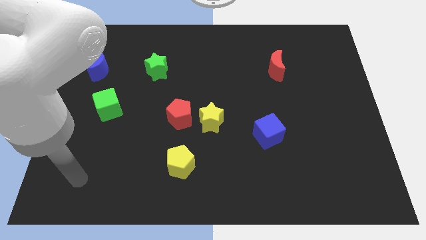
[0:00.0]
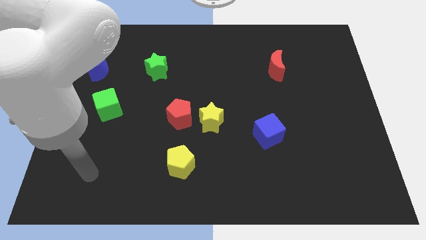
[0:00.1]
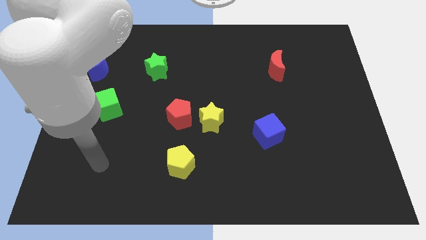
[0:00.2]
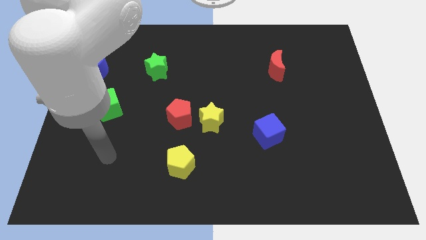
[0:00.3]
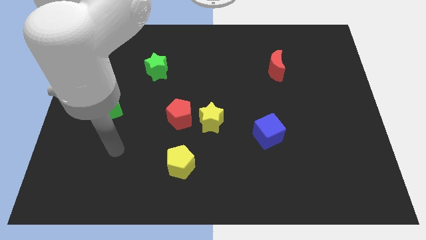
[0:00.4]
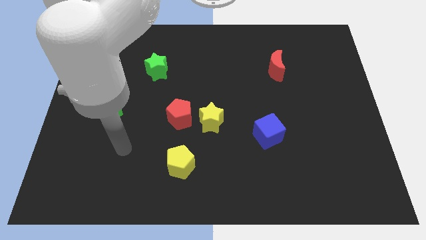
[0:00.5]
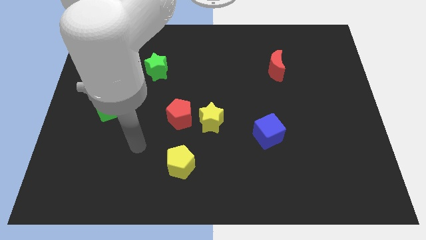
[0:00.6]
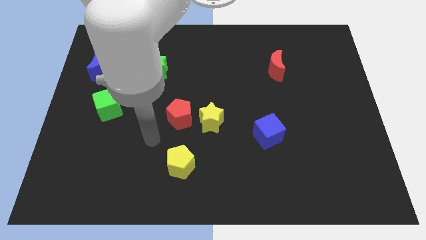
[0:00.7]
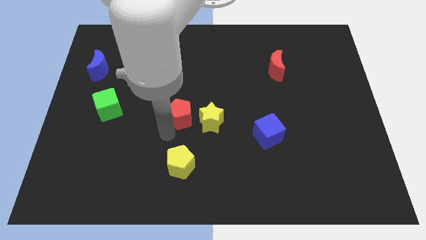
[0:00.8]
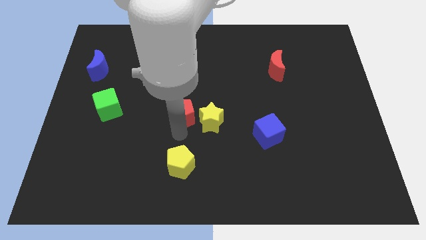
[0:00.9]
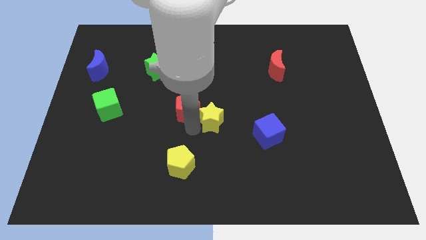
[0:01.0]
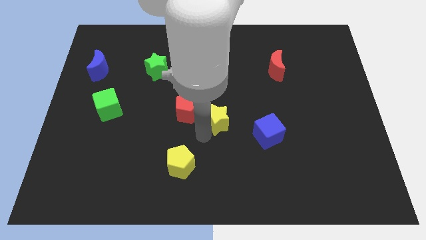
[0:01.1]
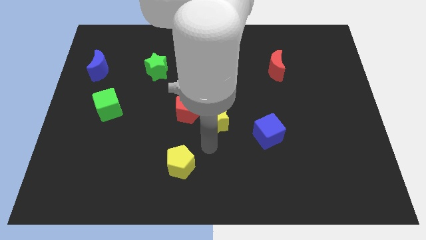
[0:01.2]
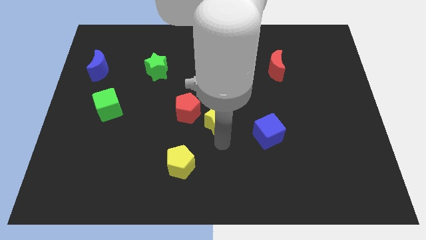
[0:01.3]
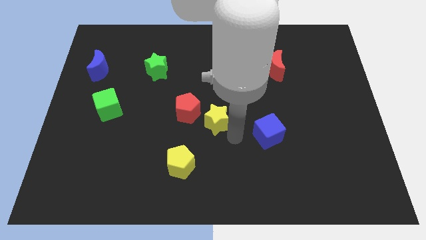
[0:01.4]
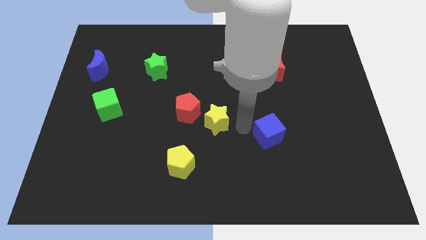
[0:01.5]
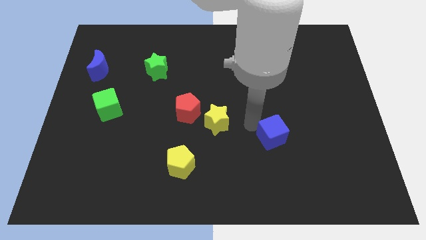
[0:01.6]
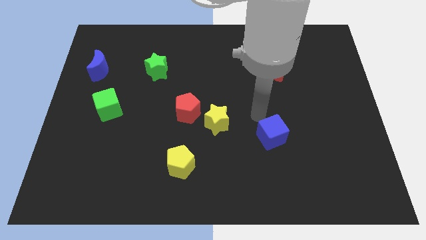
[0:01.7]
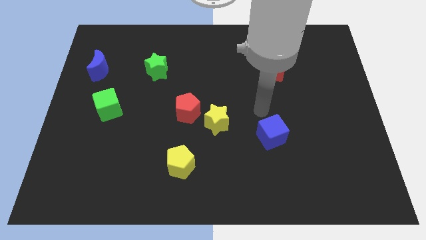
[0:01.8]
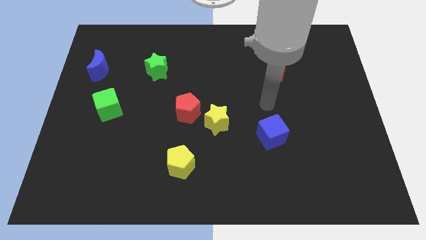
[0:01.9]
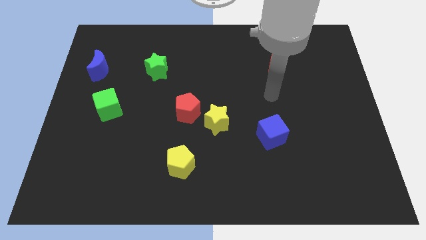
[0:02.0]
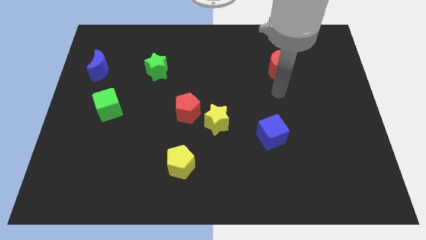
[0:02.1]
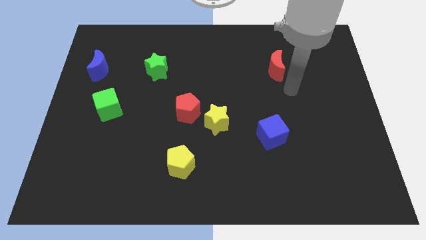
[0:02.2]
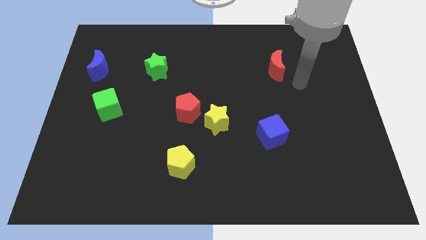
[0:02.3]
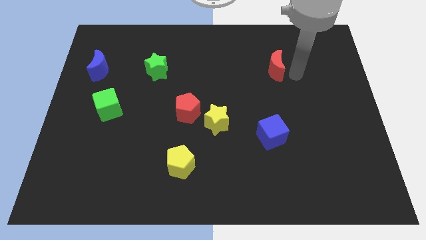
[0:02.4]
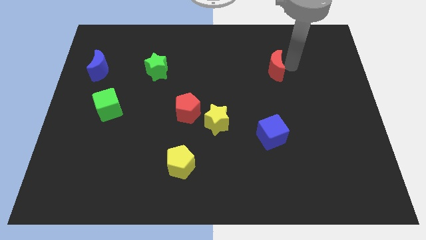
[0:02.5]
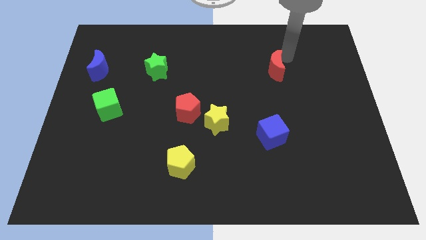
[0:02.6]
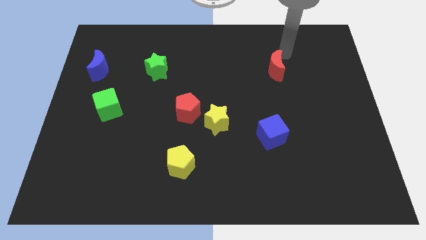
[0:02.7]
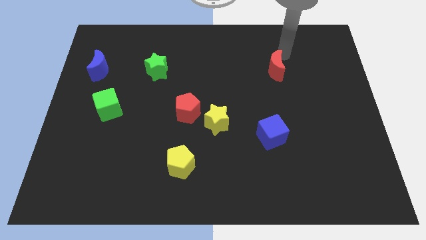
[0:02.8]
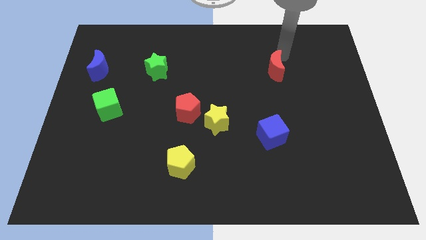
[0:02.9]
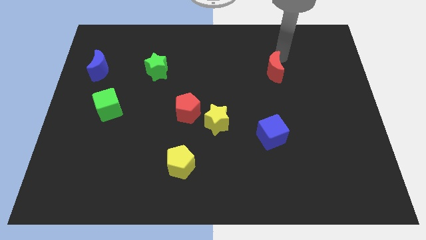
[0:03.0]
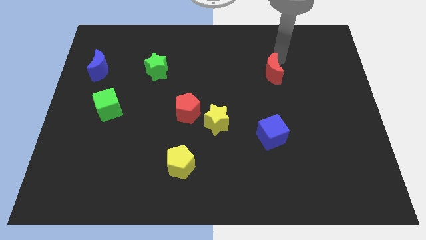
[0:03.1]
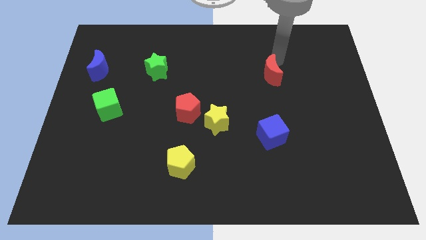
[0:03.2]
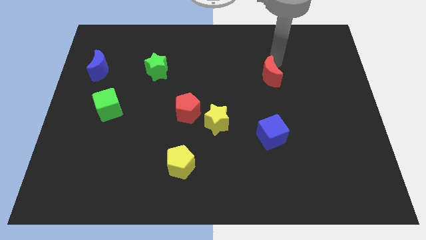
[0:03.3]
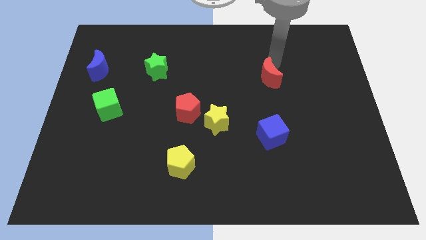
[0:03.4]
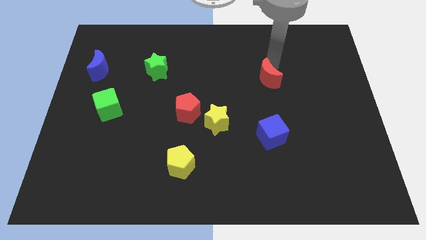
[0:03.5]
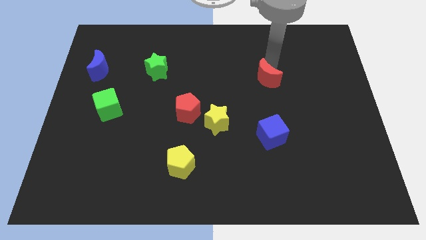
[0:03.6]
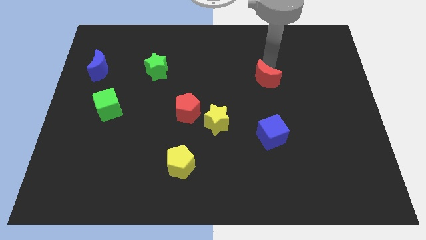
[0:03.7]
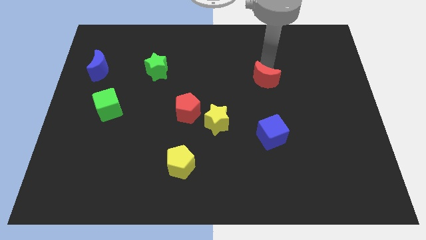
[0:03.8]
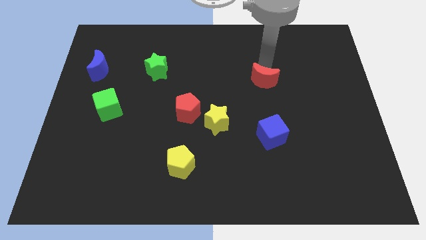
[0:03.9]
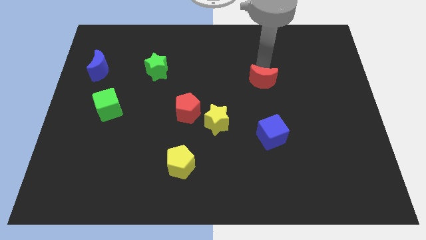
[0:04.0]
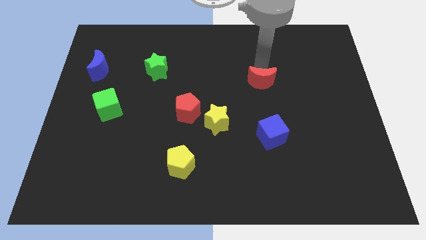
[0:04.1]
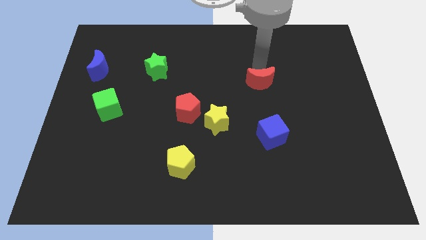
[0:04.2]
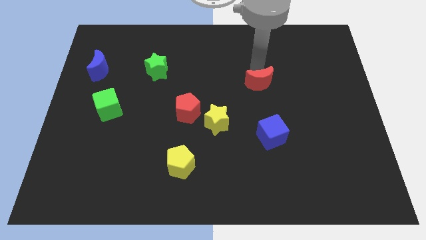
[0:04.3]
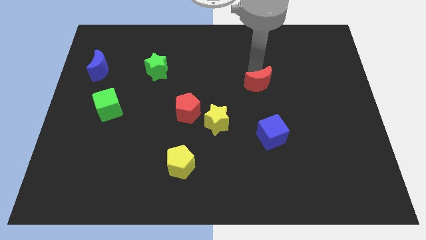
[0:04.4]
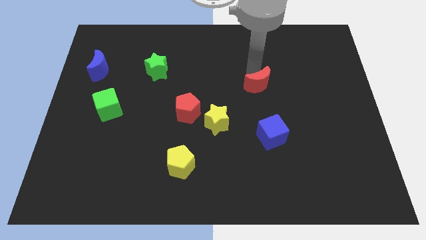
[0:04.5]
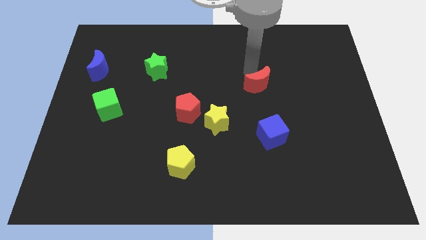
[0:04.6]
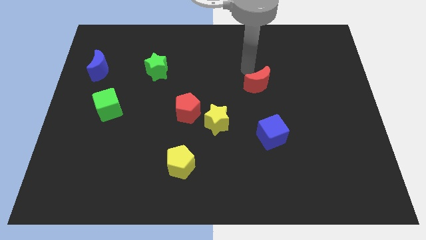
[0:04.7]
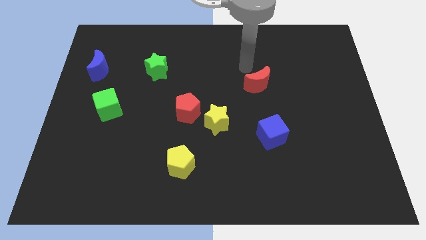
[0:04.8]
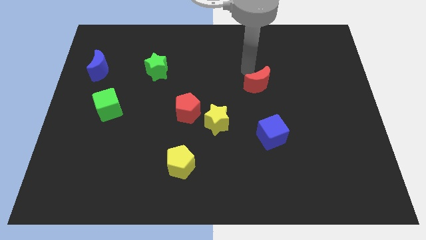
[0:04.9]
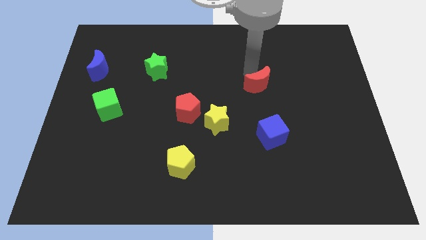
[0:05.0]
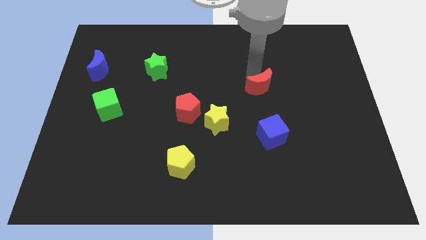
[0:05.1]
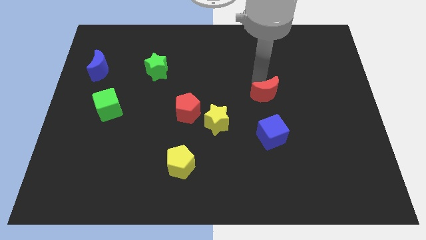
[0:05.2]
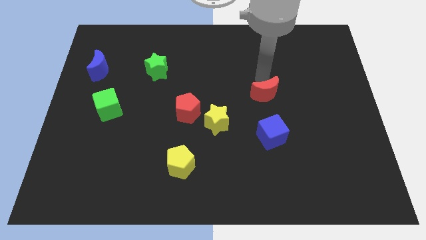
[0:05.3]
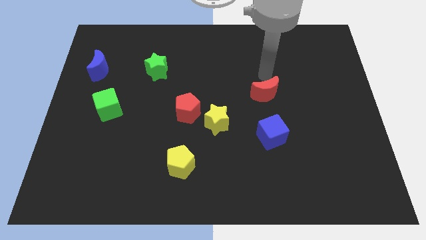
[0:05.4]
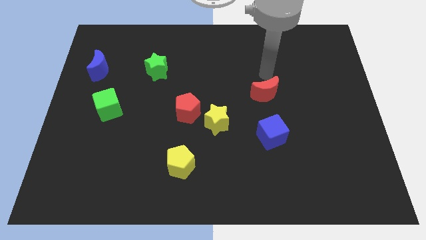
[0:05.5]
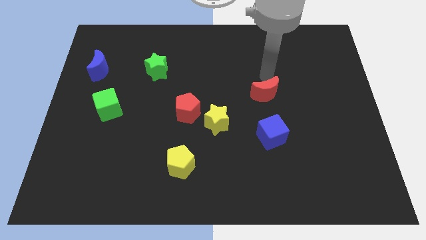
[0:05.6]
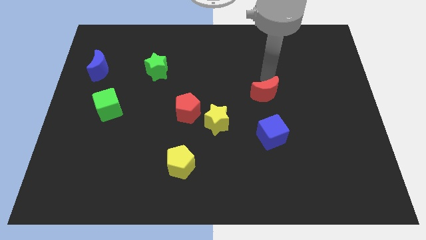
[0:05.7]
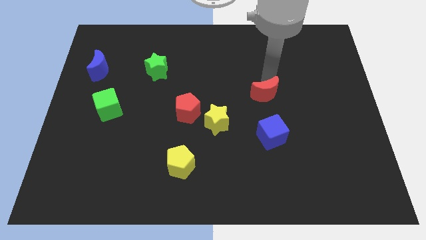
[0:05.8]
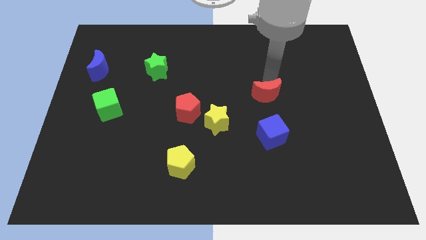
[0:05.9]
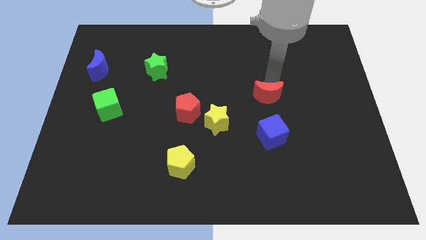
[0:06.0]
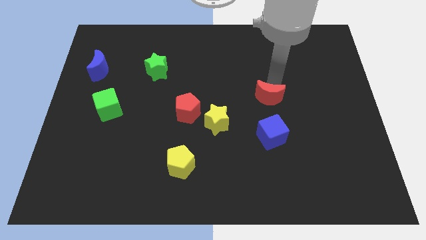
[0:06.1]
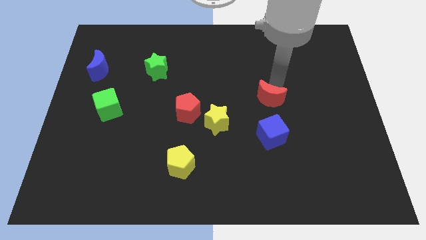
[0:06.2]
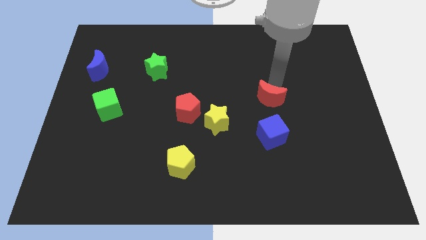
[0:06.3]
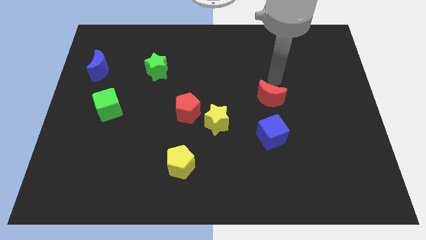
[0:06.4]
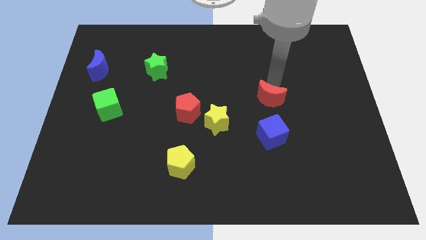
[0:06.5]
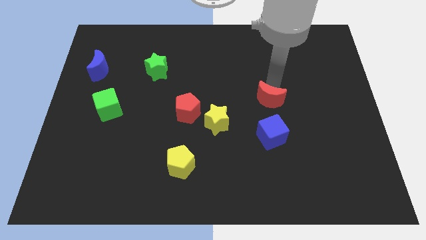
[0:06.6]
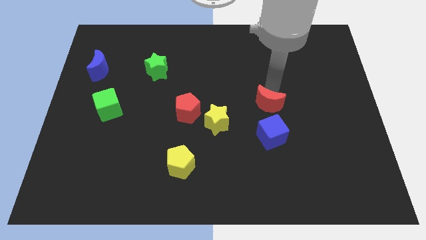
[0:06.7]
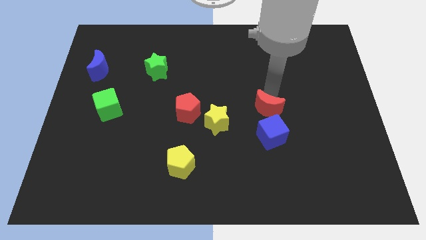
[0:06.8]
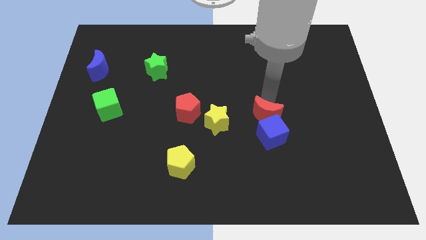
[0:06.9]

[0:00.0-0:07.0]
put the red moon to the blue cube
